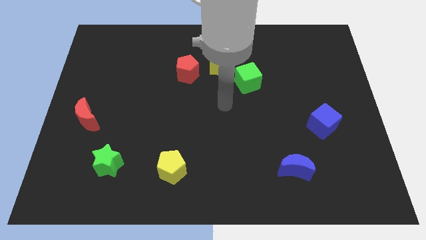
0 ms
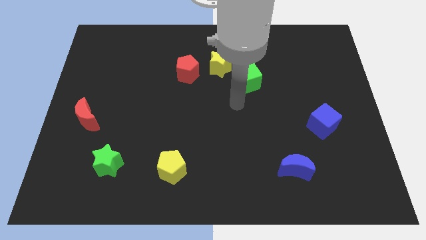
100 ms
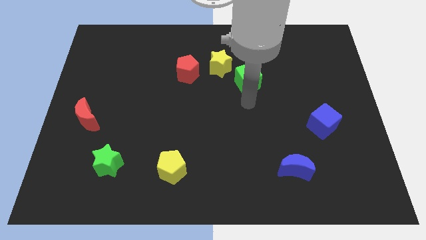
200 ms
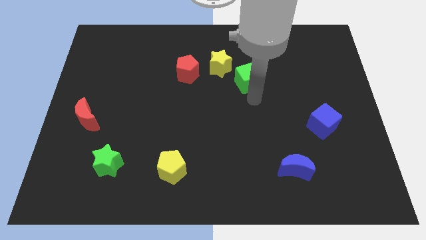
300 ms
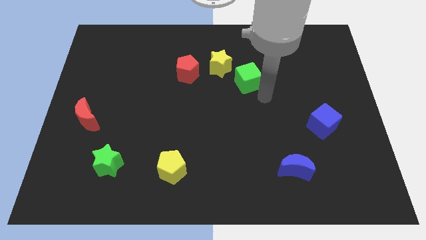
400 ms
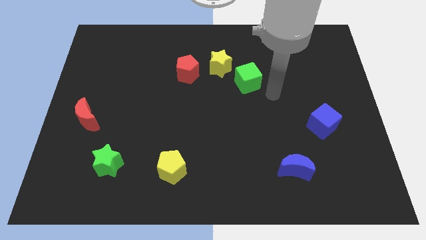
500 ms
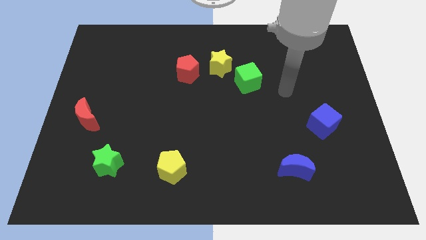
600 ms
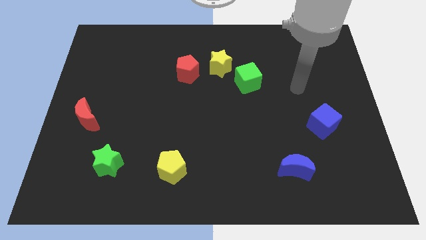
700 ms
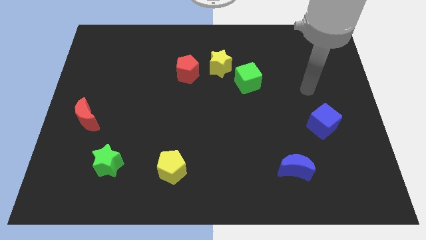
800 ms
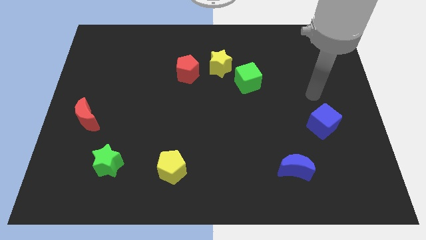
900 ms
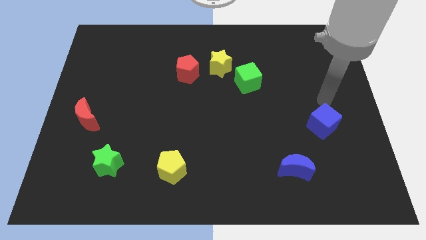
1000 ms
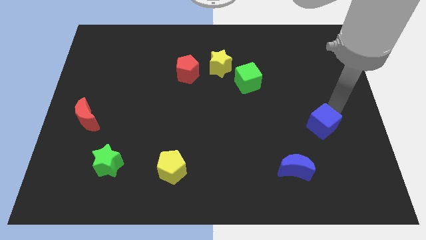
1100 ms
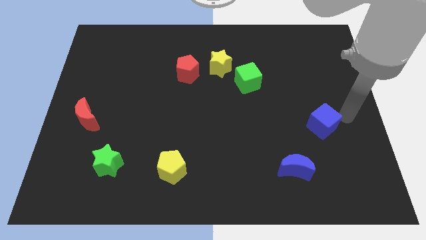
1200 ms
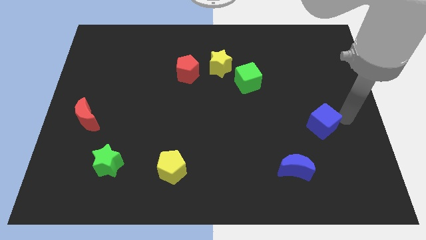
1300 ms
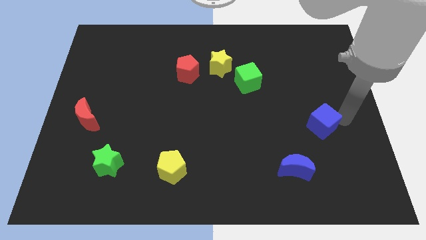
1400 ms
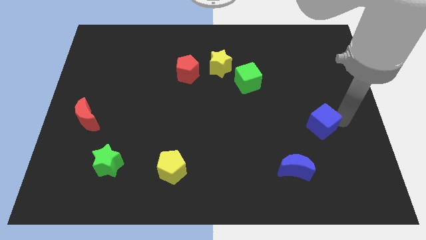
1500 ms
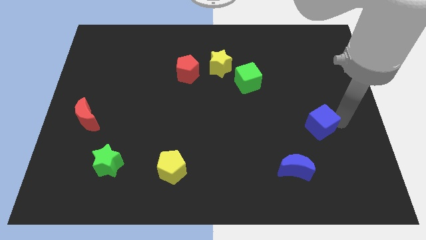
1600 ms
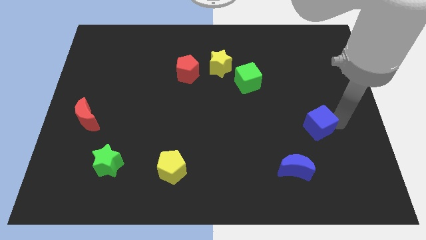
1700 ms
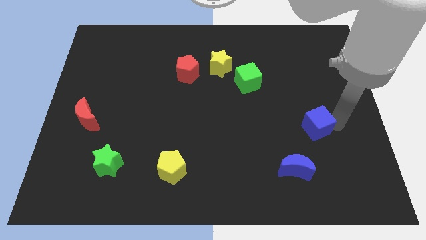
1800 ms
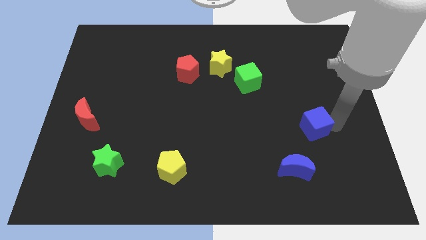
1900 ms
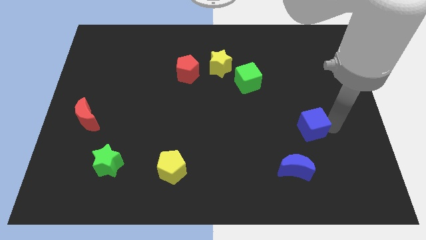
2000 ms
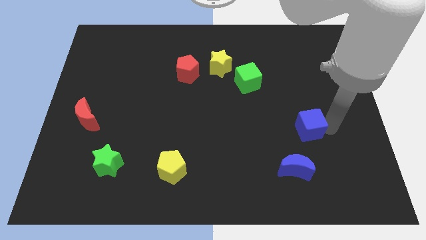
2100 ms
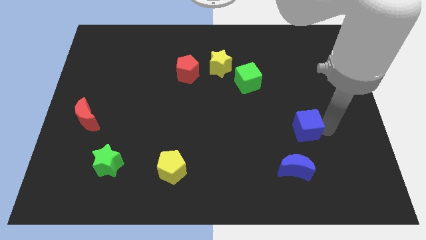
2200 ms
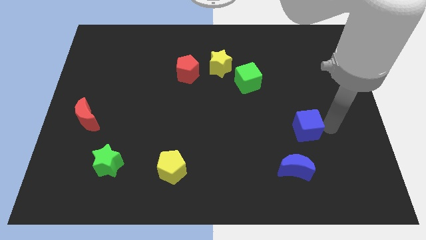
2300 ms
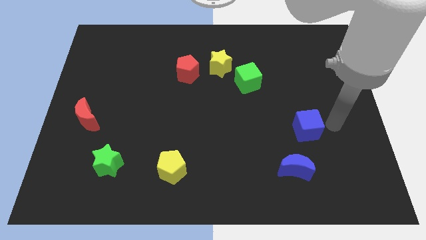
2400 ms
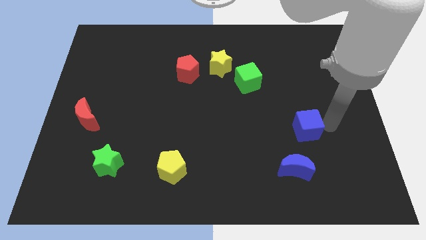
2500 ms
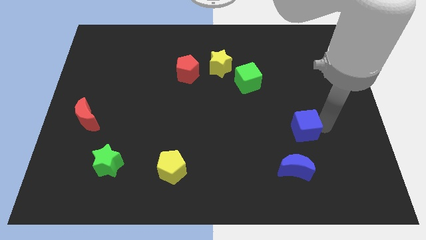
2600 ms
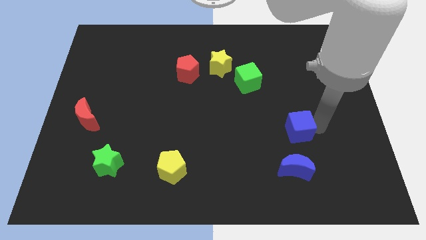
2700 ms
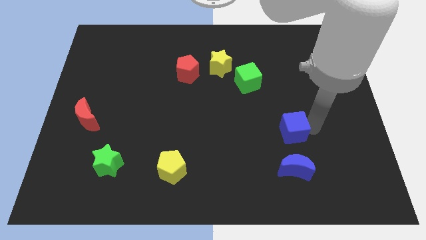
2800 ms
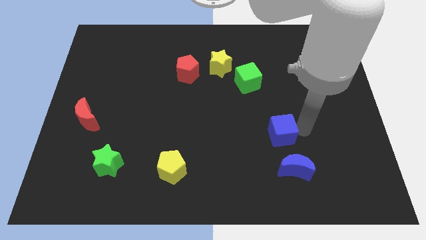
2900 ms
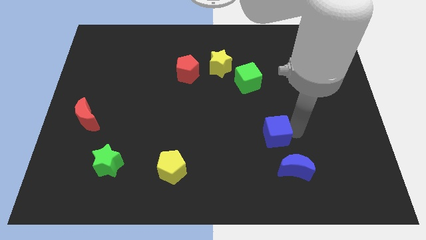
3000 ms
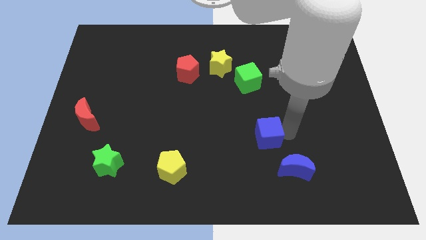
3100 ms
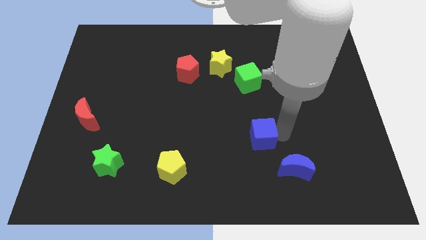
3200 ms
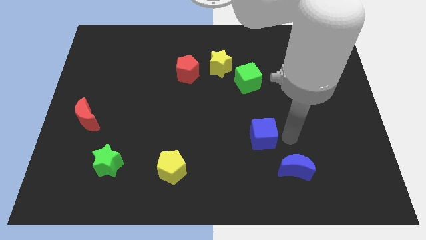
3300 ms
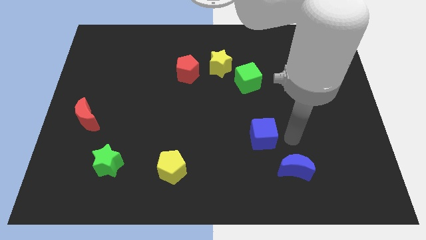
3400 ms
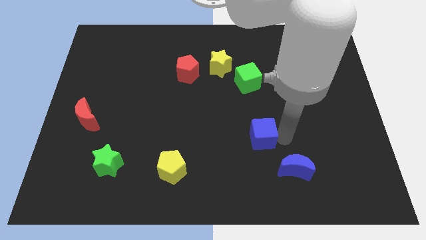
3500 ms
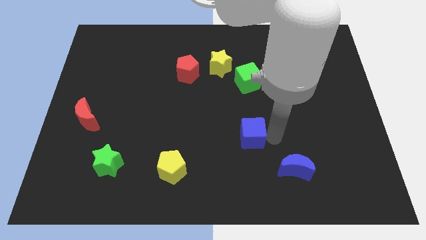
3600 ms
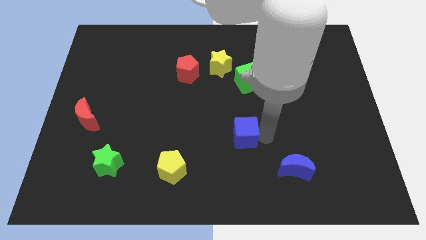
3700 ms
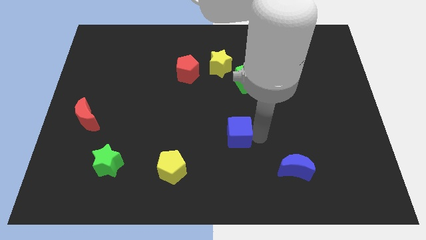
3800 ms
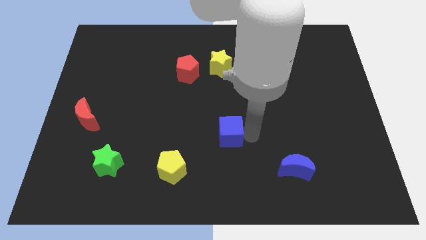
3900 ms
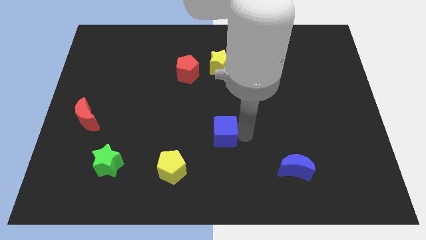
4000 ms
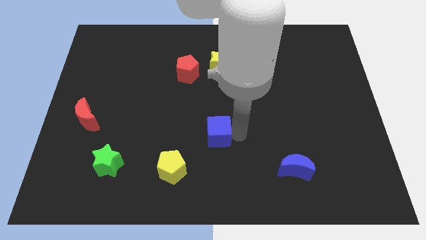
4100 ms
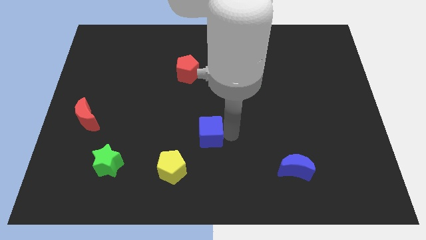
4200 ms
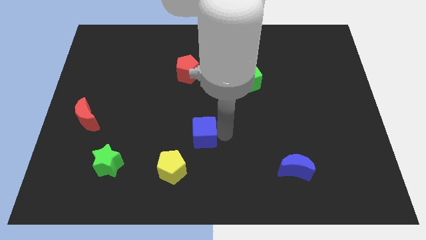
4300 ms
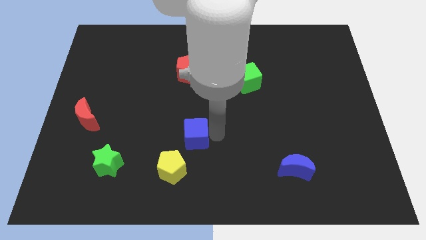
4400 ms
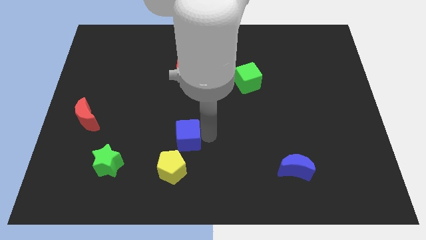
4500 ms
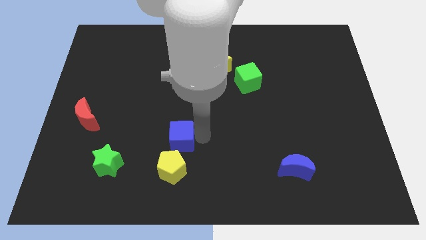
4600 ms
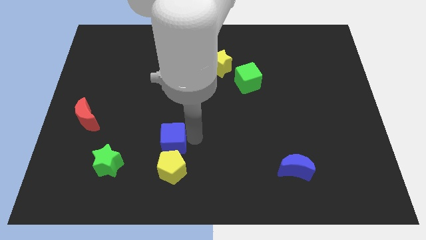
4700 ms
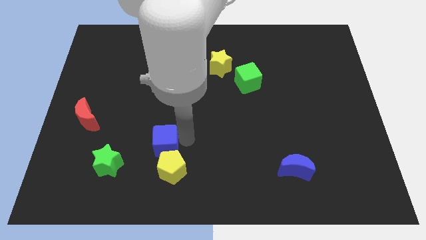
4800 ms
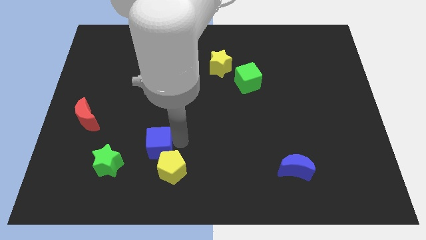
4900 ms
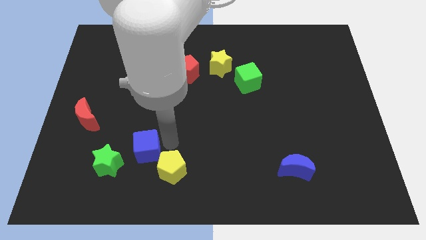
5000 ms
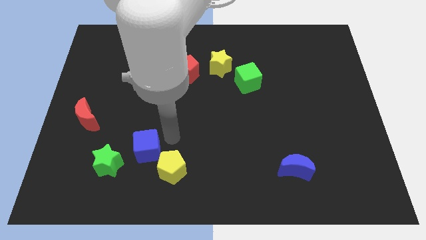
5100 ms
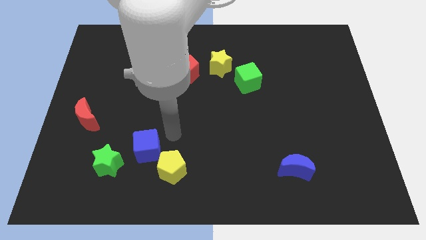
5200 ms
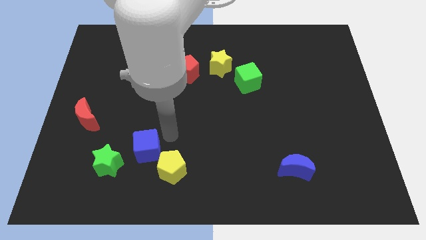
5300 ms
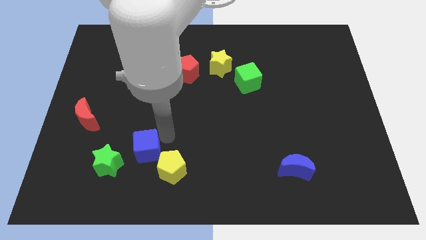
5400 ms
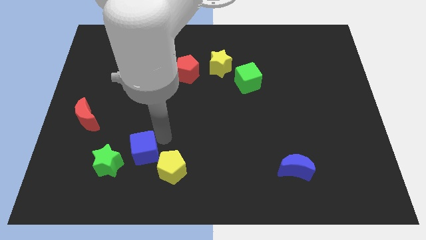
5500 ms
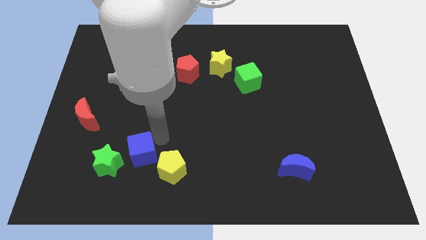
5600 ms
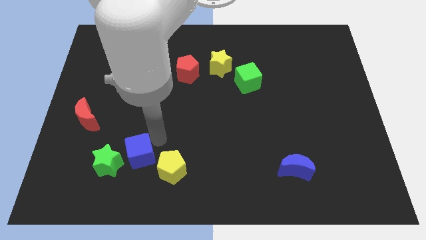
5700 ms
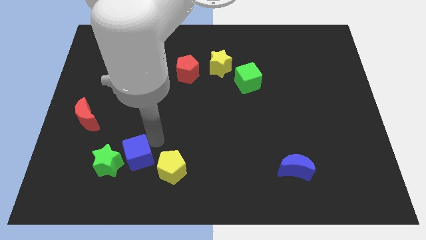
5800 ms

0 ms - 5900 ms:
put the blue cube close to the green star
